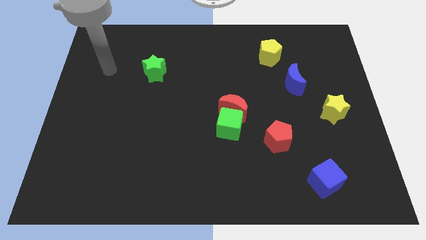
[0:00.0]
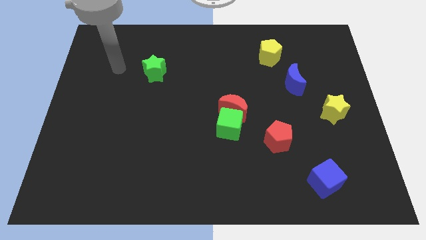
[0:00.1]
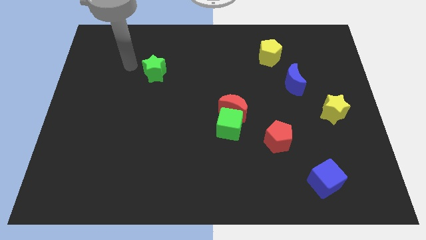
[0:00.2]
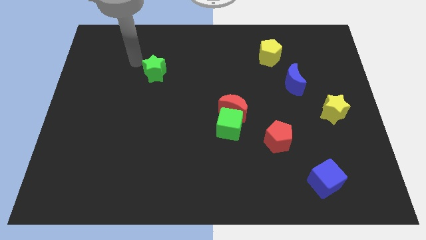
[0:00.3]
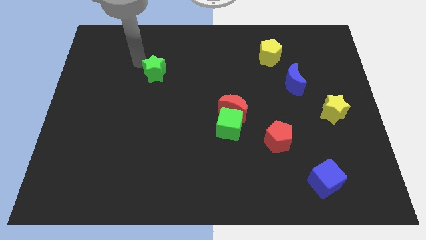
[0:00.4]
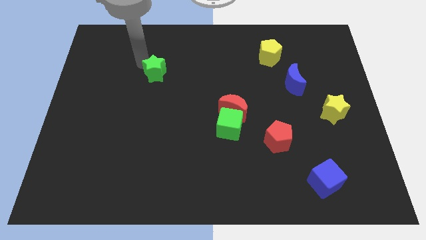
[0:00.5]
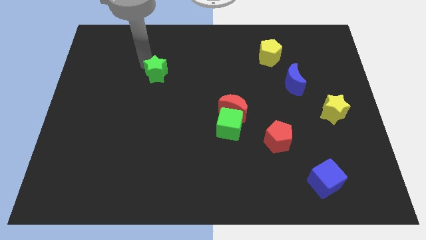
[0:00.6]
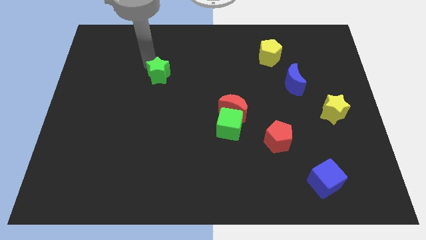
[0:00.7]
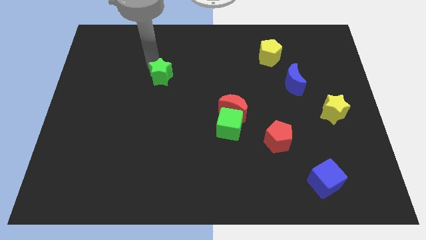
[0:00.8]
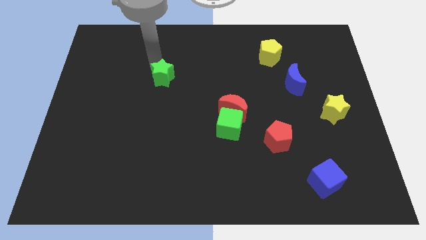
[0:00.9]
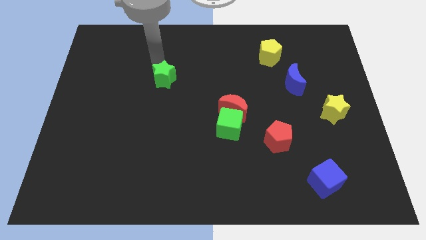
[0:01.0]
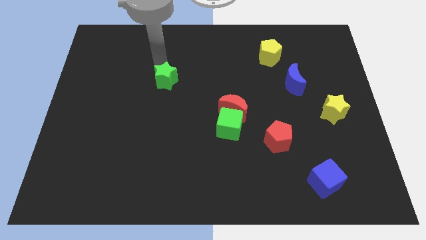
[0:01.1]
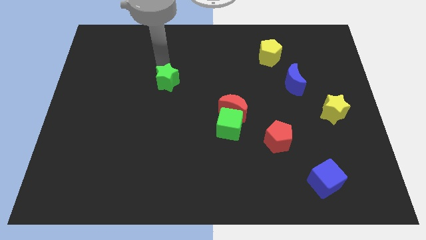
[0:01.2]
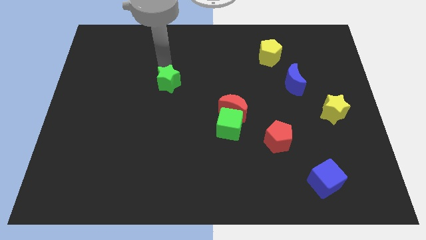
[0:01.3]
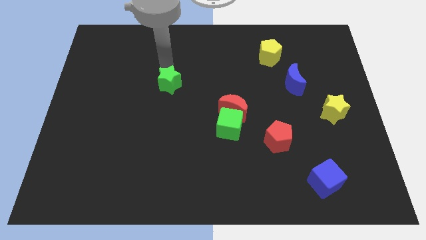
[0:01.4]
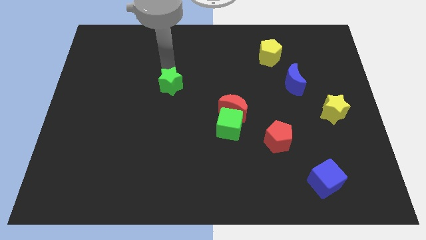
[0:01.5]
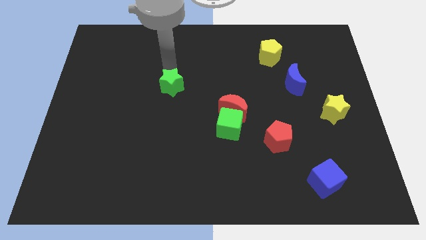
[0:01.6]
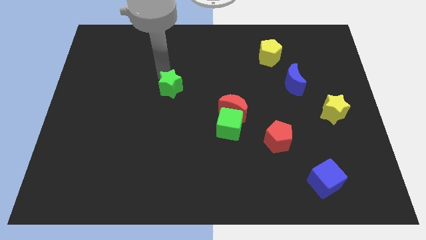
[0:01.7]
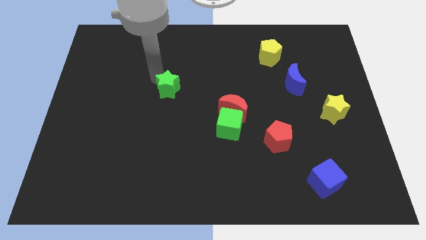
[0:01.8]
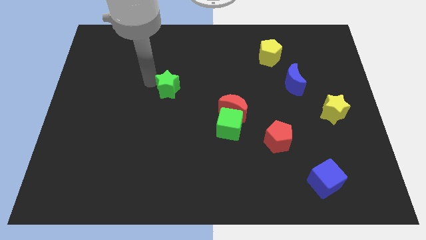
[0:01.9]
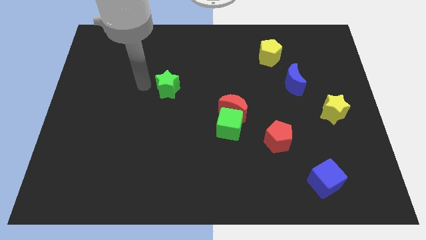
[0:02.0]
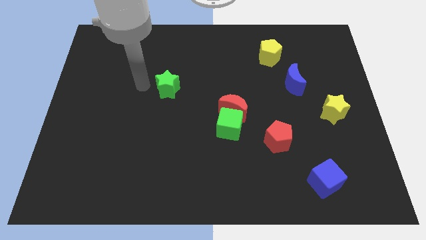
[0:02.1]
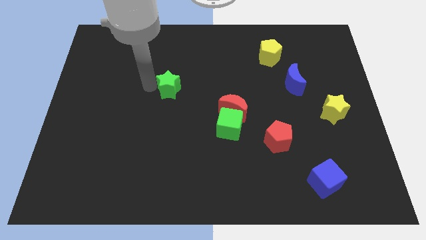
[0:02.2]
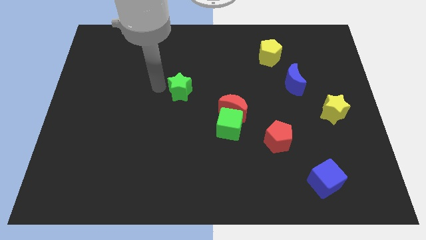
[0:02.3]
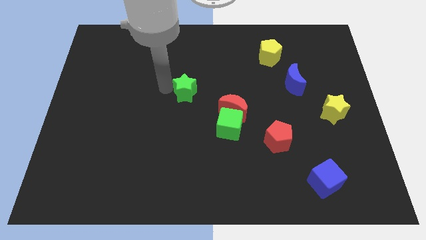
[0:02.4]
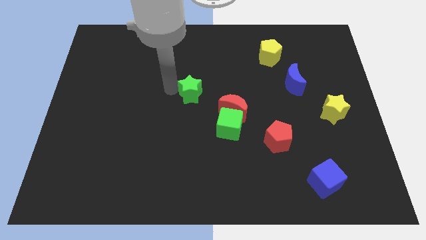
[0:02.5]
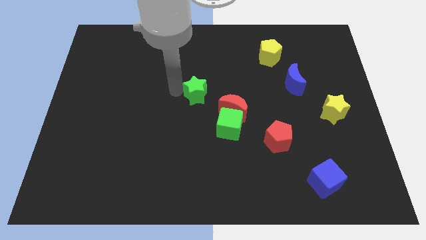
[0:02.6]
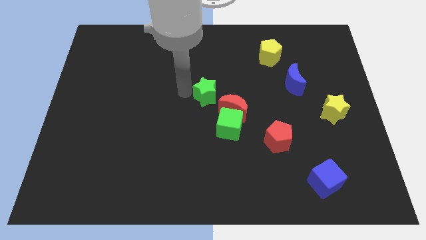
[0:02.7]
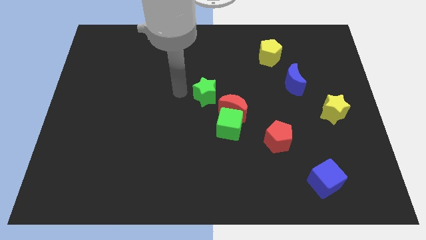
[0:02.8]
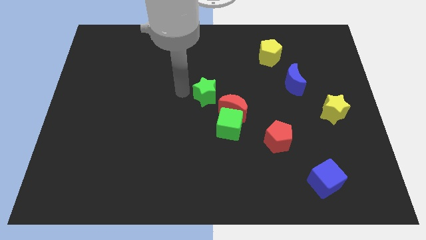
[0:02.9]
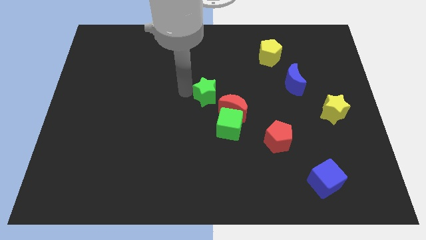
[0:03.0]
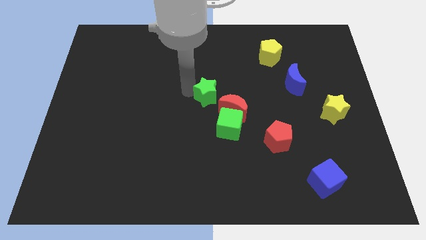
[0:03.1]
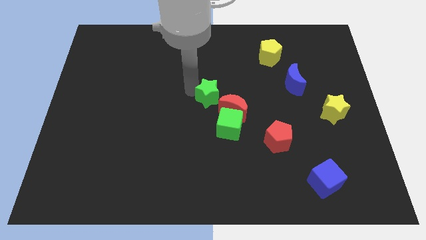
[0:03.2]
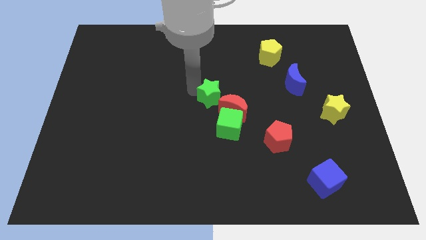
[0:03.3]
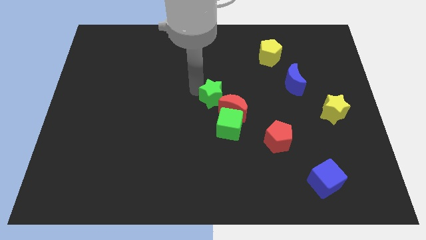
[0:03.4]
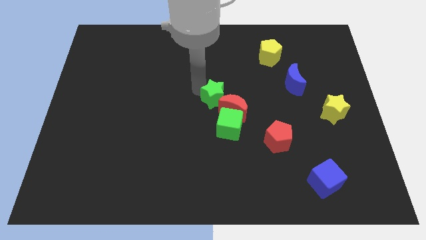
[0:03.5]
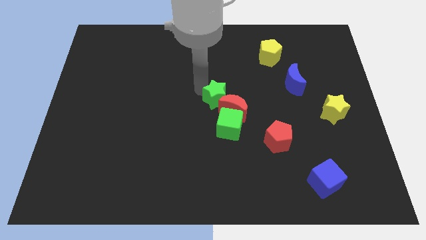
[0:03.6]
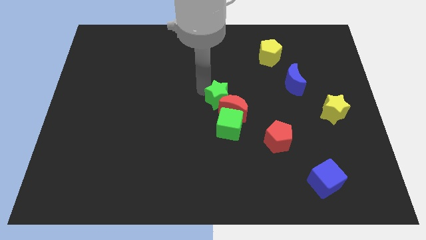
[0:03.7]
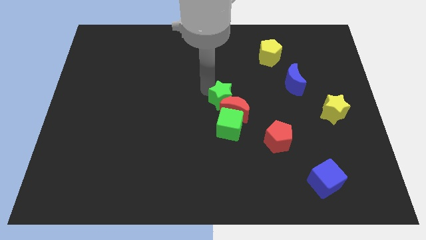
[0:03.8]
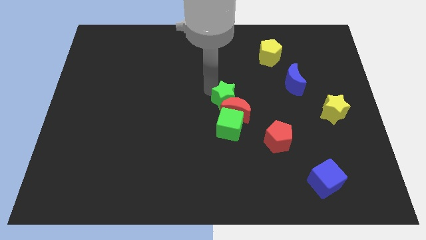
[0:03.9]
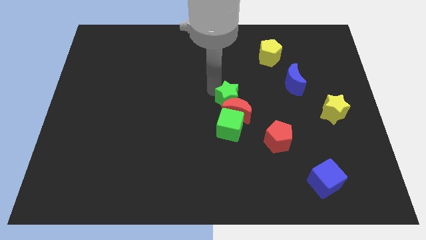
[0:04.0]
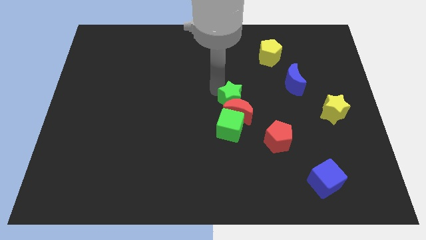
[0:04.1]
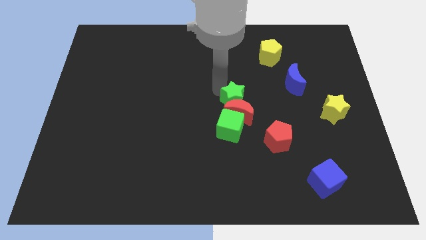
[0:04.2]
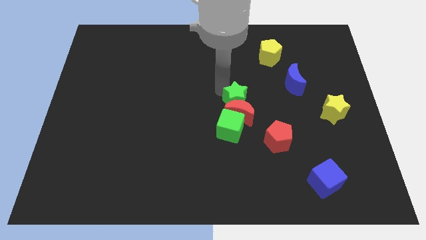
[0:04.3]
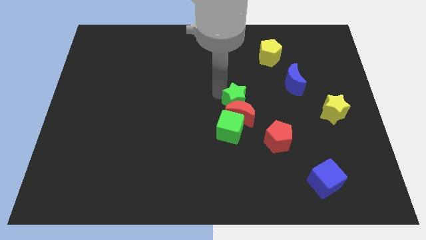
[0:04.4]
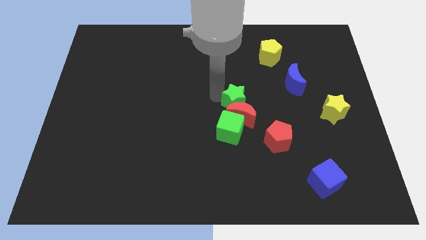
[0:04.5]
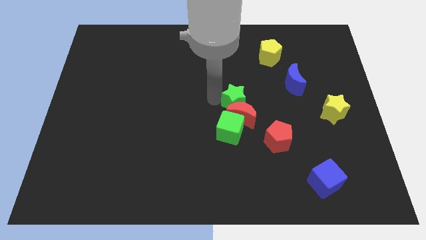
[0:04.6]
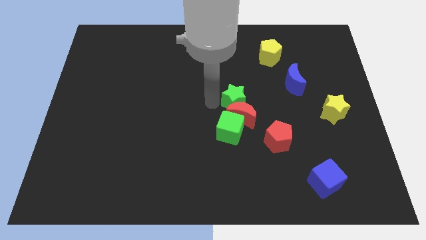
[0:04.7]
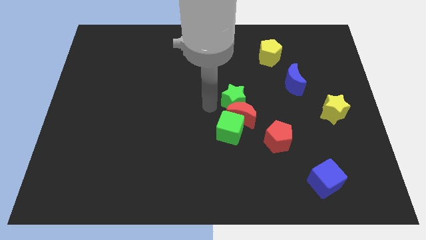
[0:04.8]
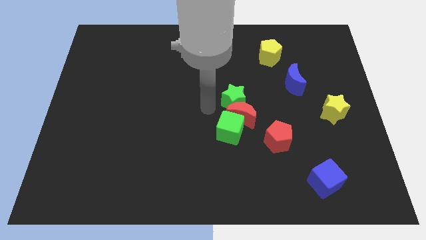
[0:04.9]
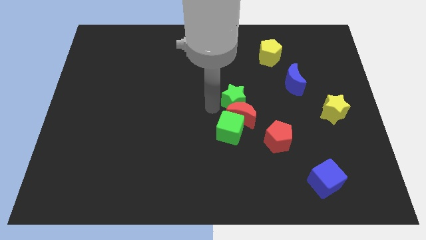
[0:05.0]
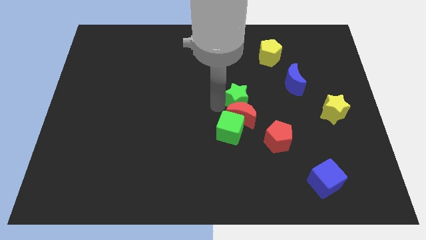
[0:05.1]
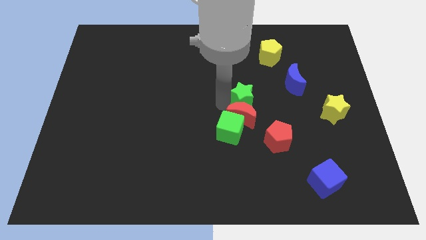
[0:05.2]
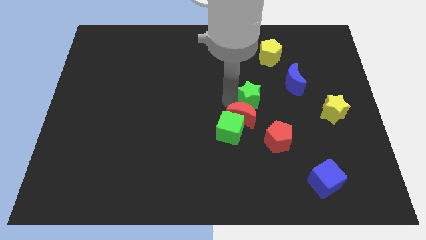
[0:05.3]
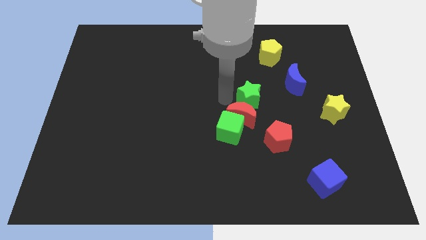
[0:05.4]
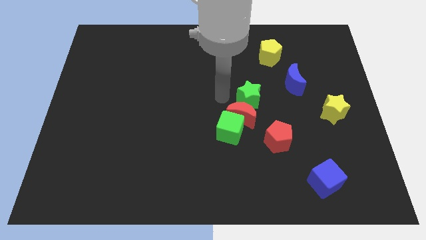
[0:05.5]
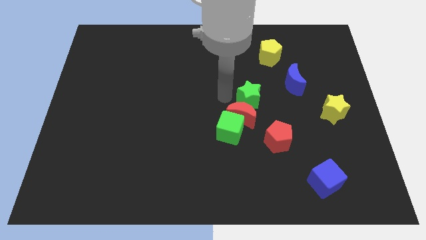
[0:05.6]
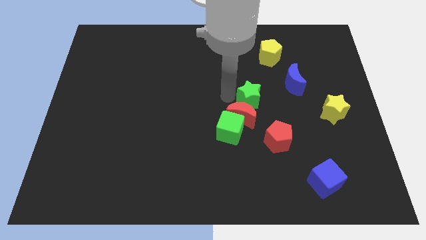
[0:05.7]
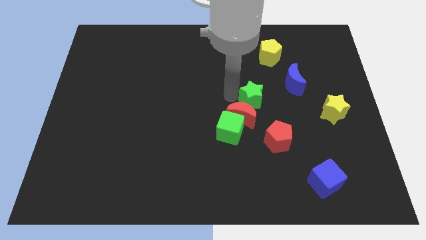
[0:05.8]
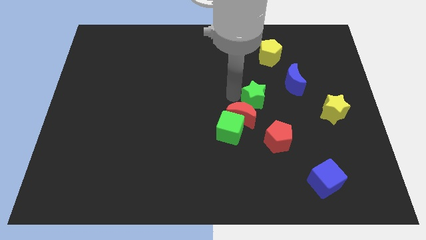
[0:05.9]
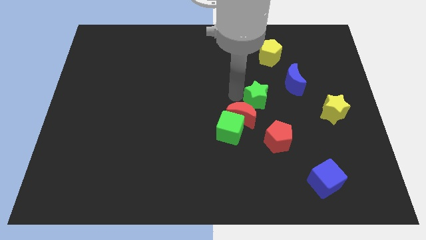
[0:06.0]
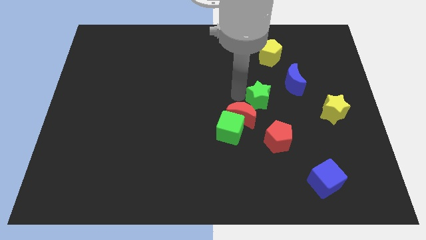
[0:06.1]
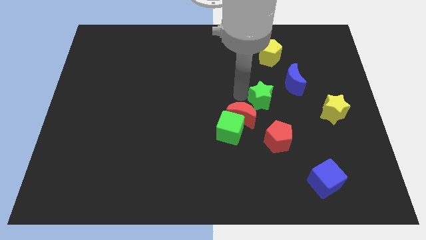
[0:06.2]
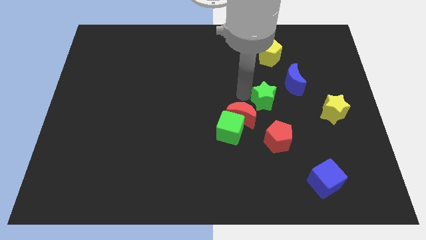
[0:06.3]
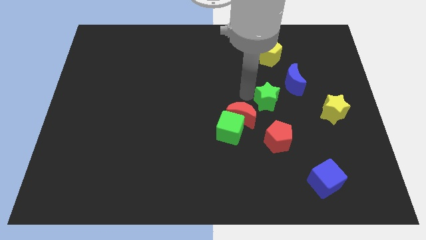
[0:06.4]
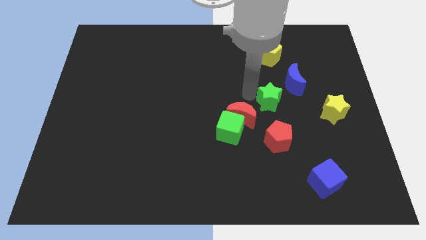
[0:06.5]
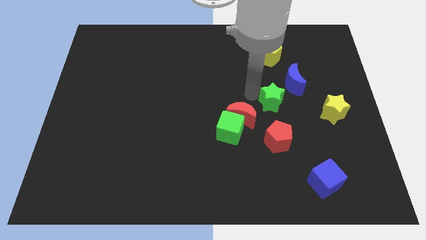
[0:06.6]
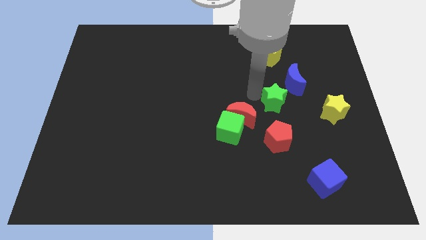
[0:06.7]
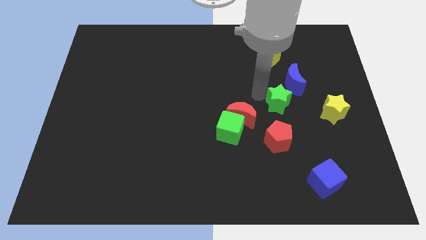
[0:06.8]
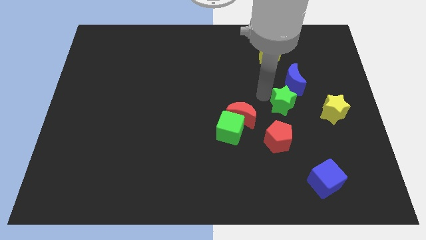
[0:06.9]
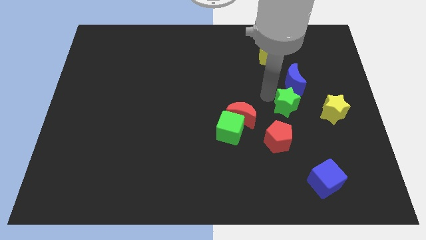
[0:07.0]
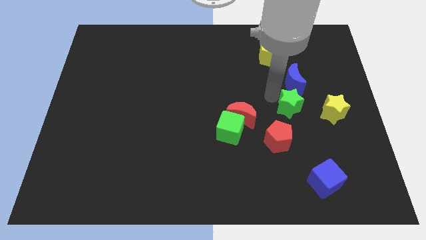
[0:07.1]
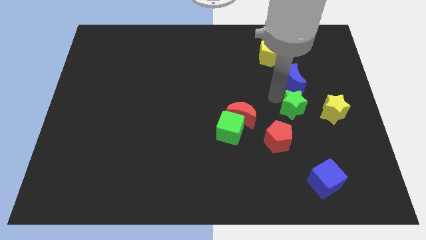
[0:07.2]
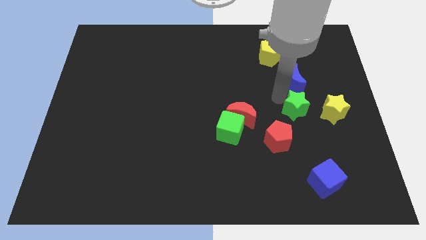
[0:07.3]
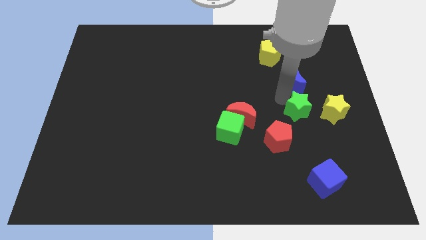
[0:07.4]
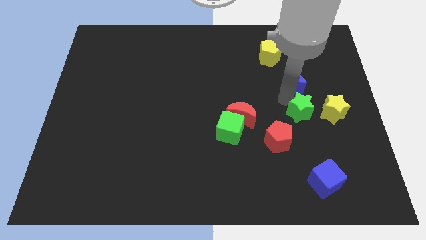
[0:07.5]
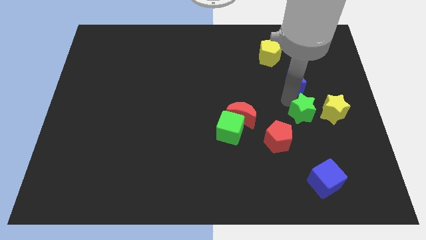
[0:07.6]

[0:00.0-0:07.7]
move the green star to the bottom left of the yellow star
